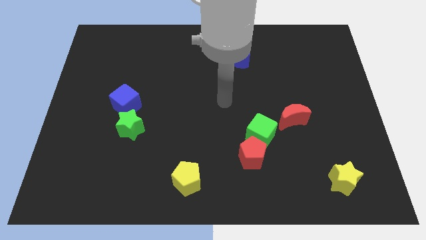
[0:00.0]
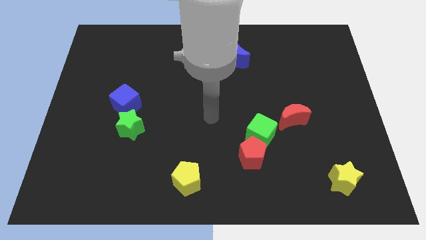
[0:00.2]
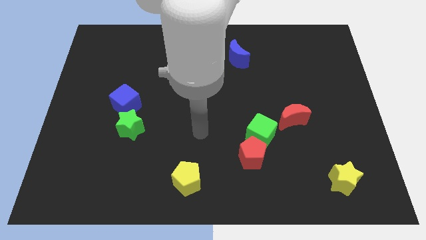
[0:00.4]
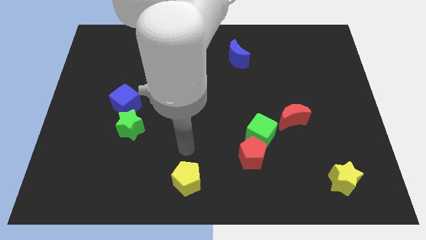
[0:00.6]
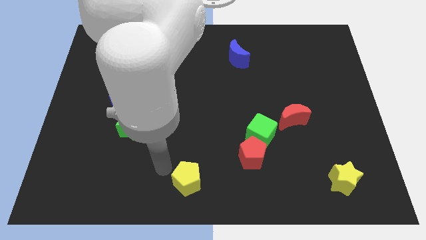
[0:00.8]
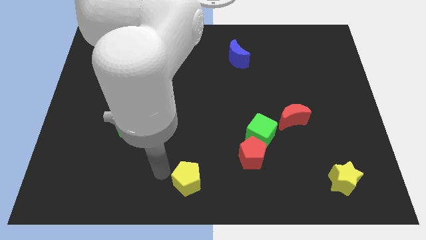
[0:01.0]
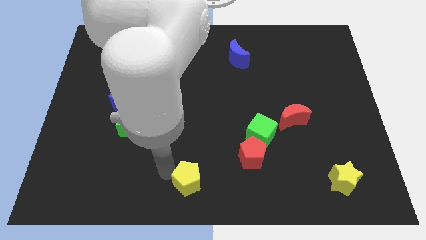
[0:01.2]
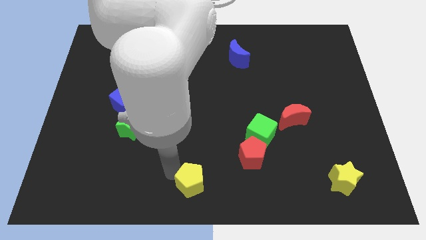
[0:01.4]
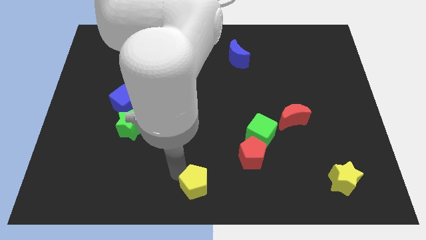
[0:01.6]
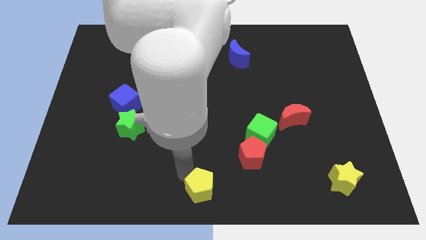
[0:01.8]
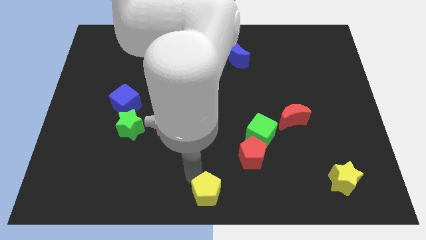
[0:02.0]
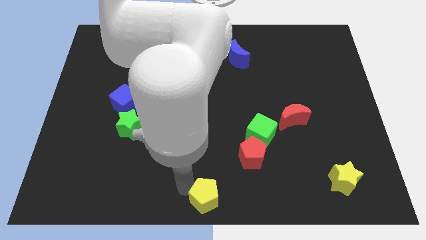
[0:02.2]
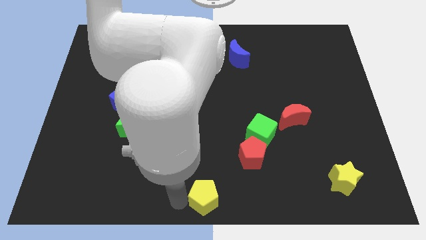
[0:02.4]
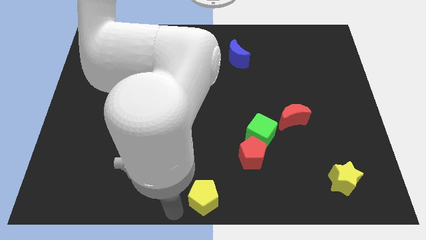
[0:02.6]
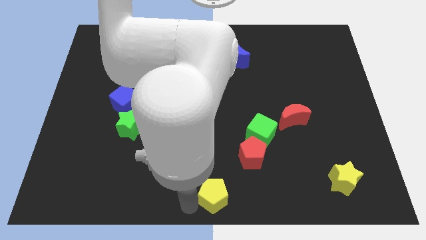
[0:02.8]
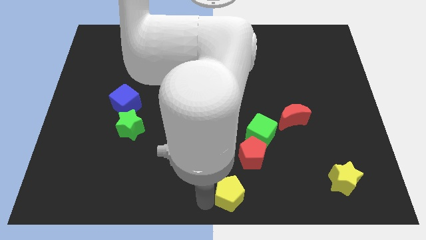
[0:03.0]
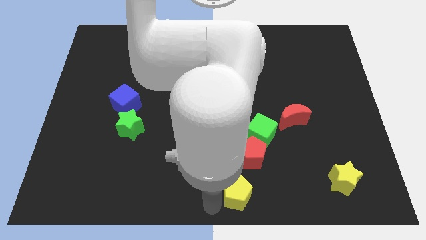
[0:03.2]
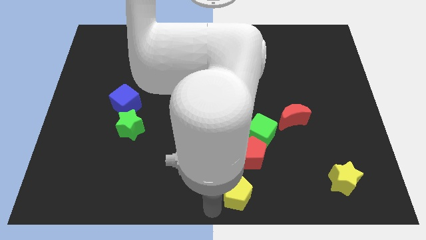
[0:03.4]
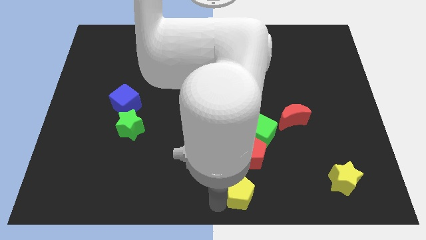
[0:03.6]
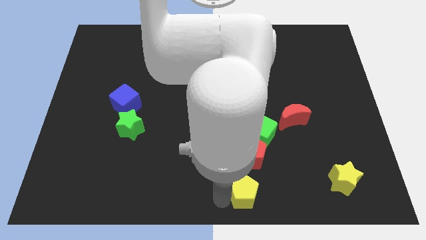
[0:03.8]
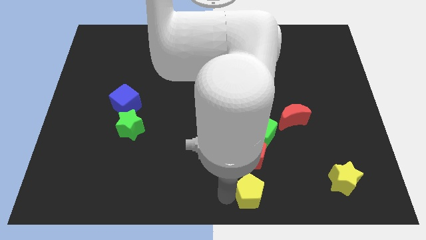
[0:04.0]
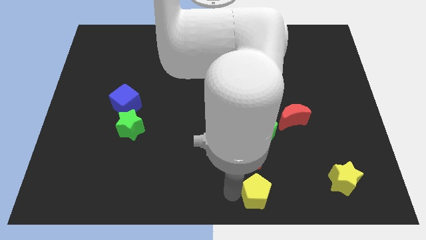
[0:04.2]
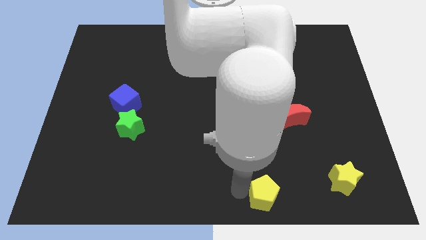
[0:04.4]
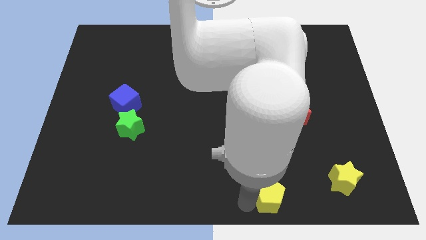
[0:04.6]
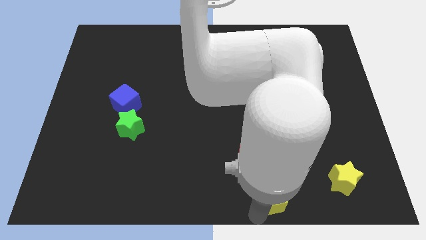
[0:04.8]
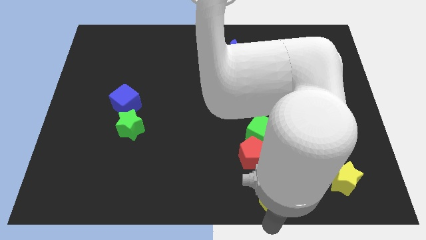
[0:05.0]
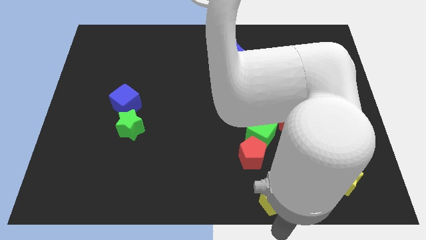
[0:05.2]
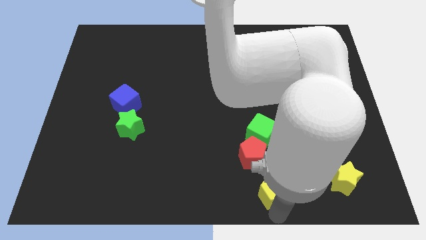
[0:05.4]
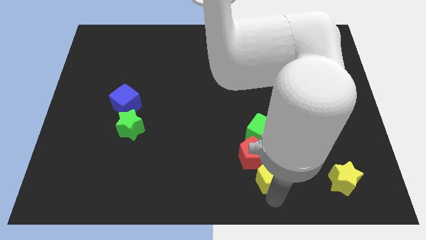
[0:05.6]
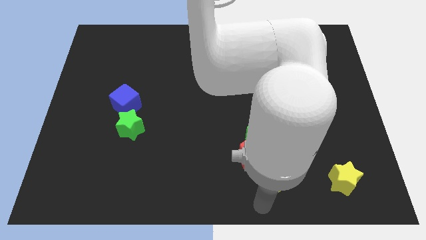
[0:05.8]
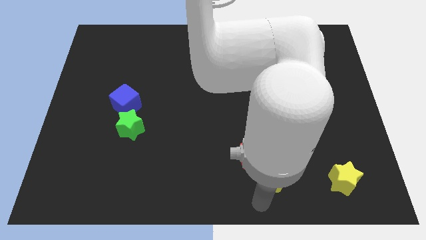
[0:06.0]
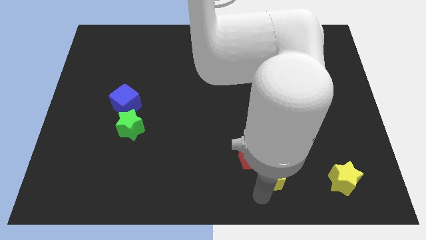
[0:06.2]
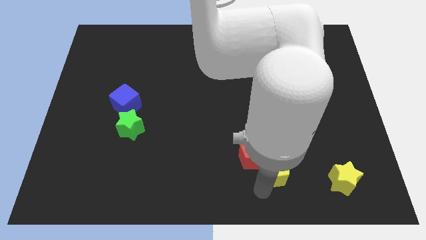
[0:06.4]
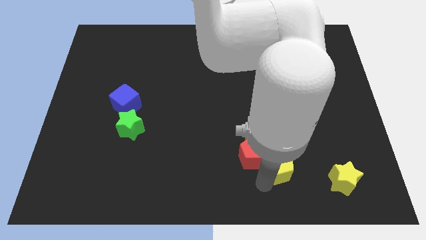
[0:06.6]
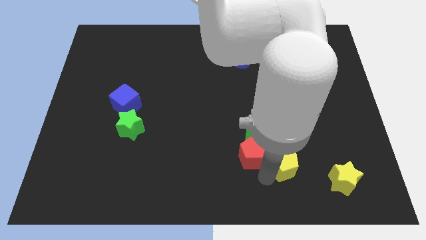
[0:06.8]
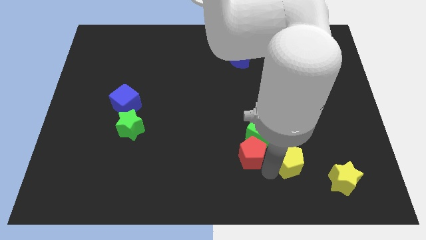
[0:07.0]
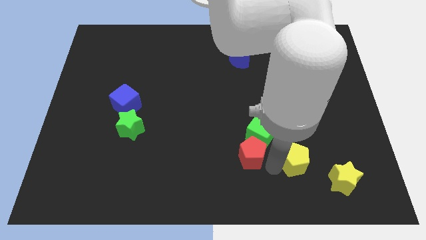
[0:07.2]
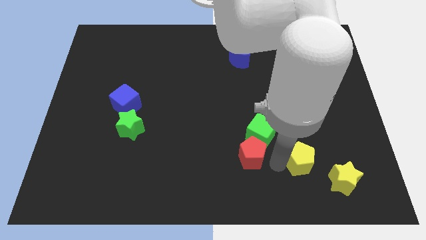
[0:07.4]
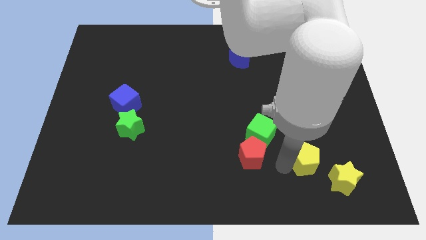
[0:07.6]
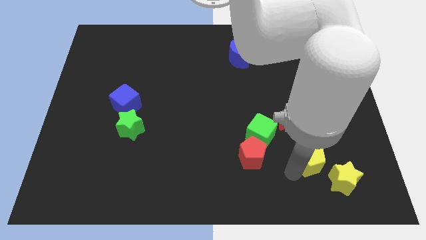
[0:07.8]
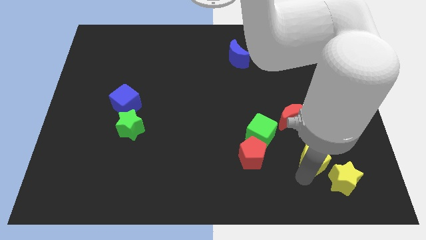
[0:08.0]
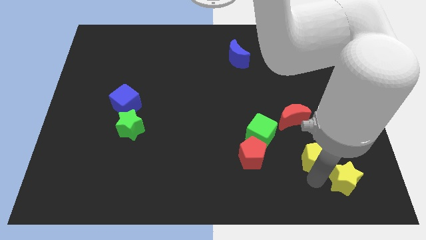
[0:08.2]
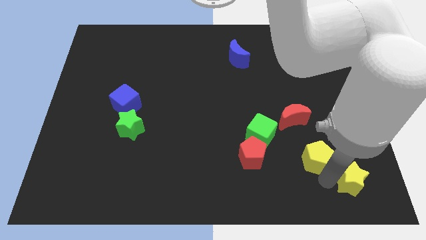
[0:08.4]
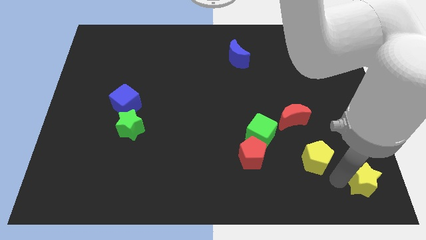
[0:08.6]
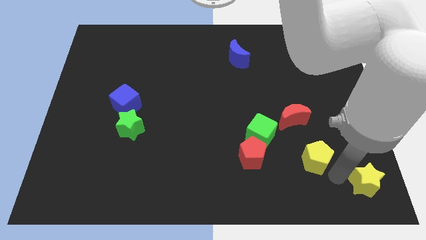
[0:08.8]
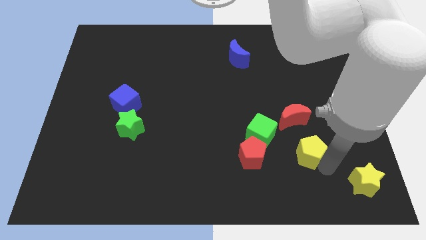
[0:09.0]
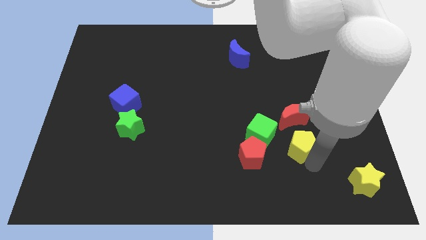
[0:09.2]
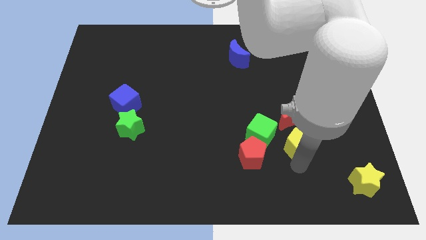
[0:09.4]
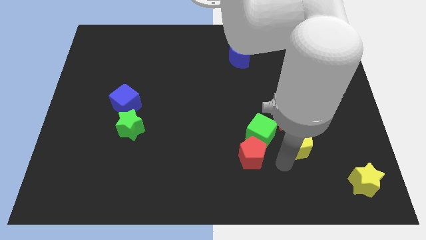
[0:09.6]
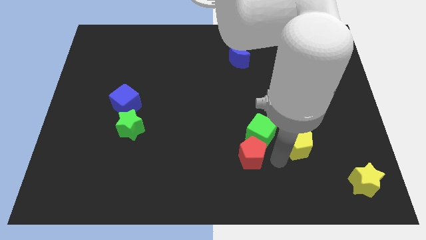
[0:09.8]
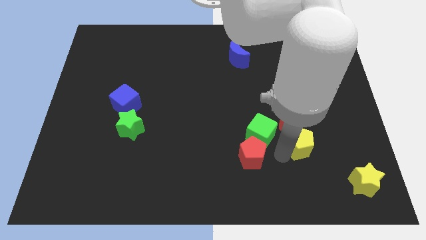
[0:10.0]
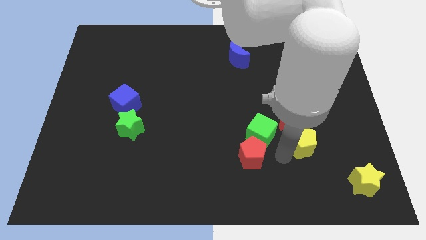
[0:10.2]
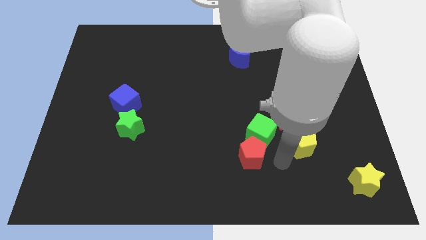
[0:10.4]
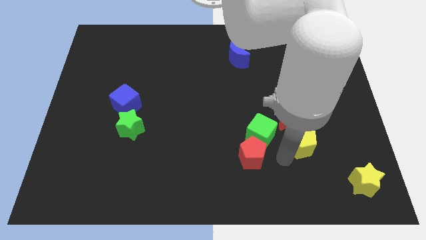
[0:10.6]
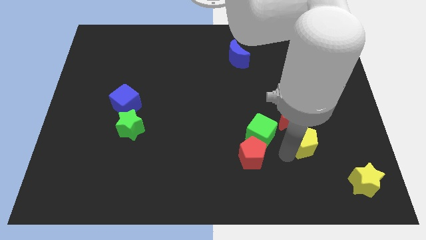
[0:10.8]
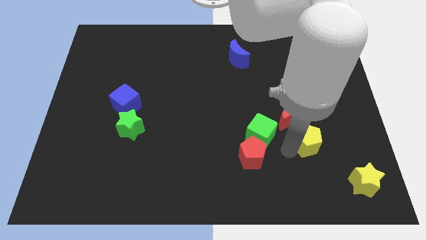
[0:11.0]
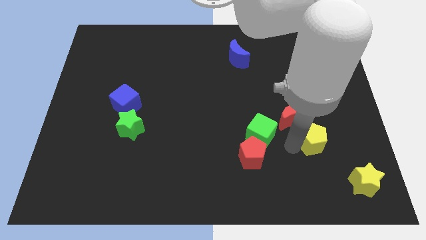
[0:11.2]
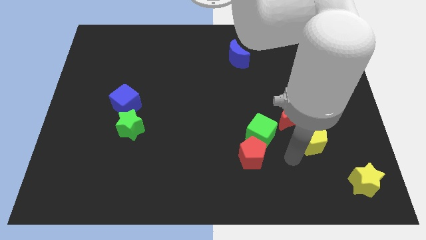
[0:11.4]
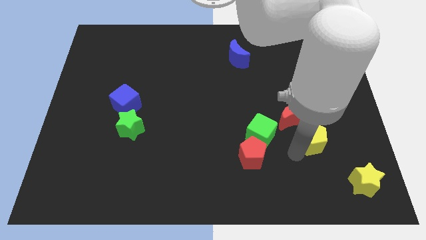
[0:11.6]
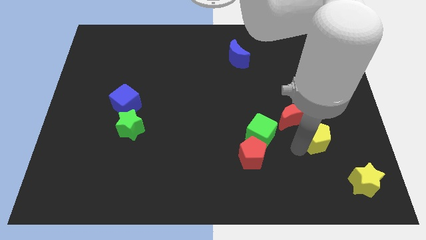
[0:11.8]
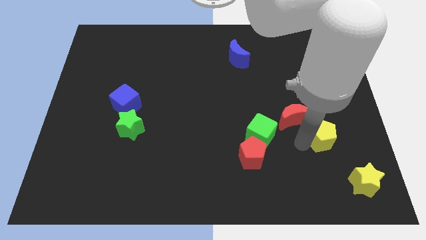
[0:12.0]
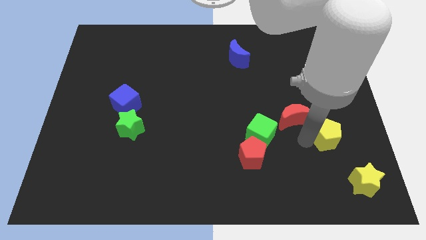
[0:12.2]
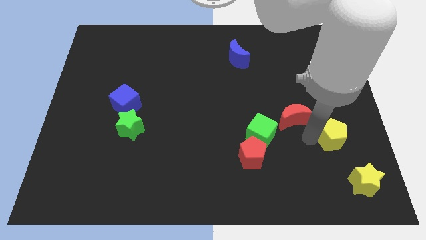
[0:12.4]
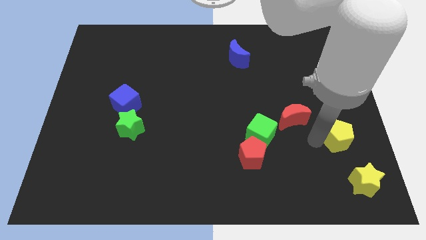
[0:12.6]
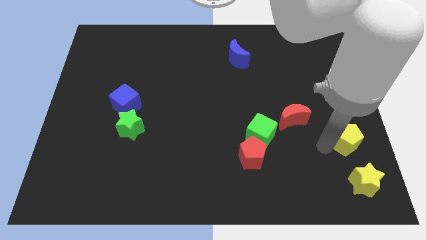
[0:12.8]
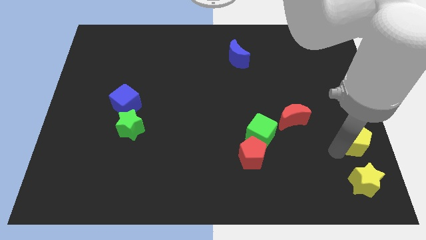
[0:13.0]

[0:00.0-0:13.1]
push the yellow pentagon to the right side

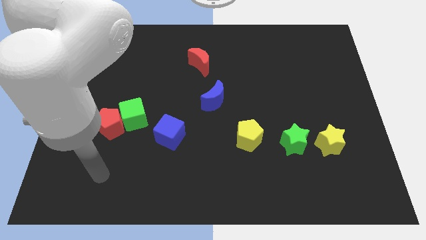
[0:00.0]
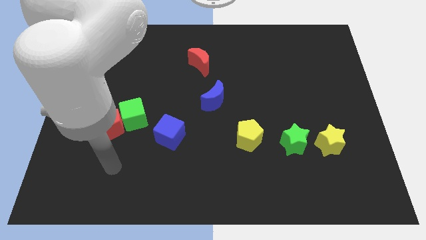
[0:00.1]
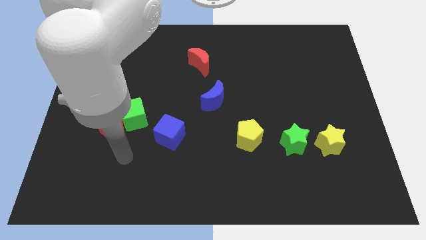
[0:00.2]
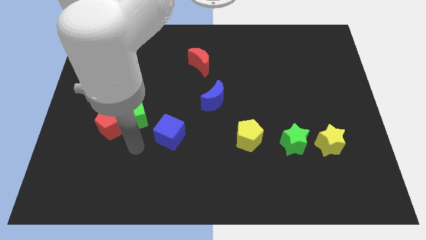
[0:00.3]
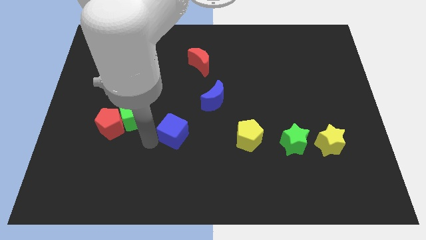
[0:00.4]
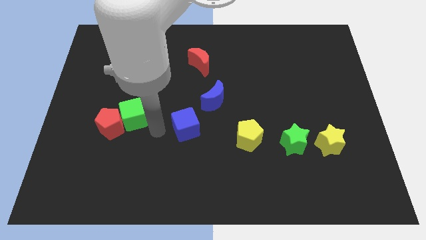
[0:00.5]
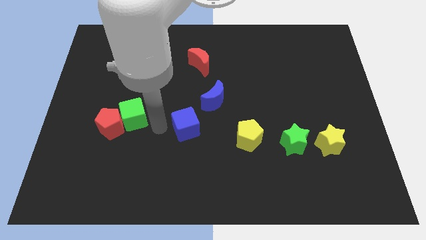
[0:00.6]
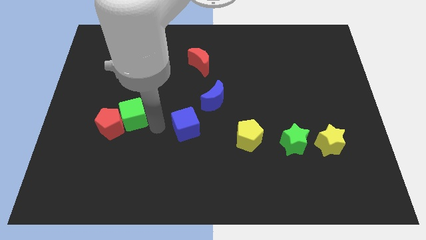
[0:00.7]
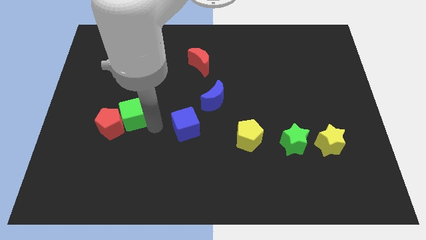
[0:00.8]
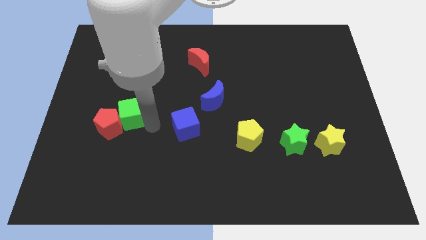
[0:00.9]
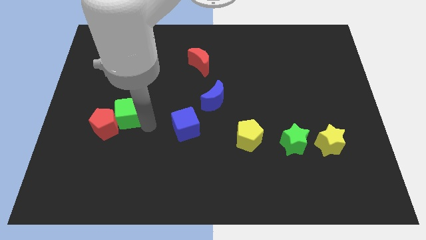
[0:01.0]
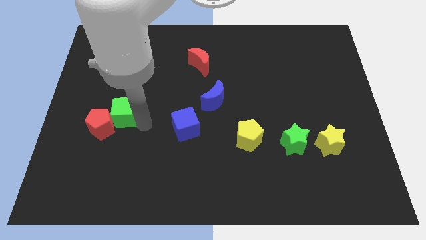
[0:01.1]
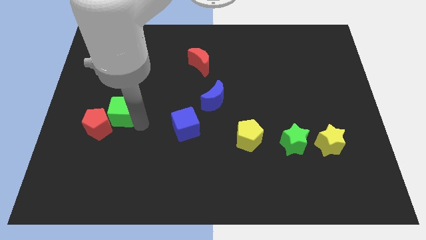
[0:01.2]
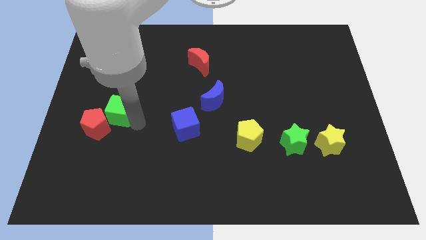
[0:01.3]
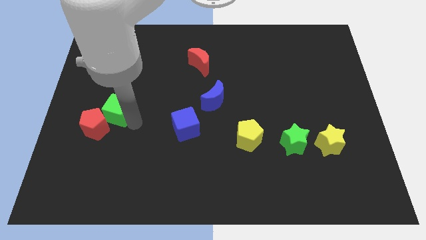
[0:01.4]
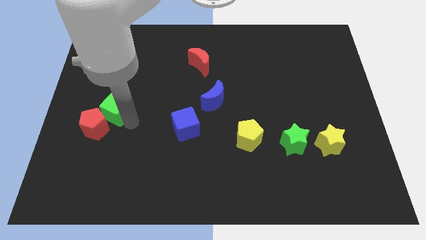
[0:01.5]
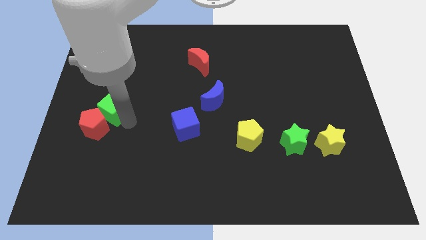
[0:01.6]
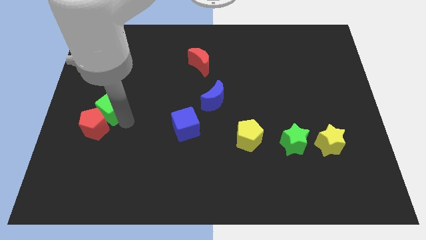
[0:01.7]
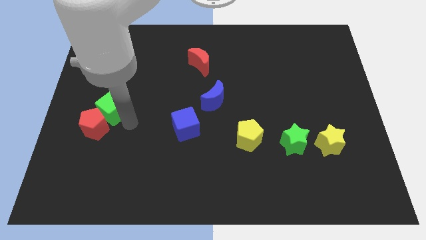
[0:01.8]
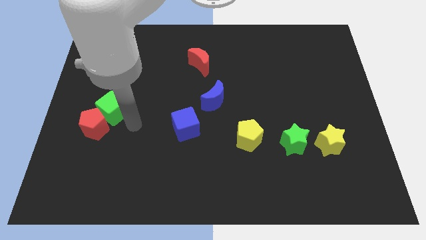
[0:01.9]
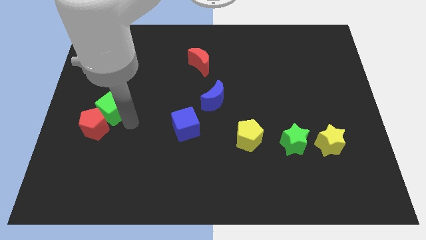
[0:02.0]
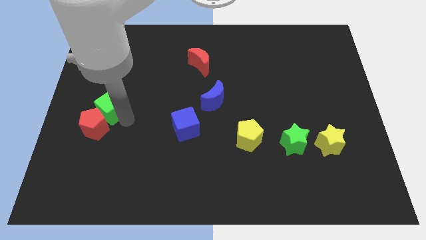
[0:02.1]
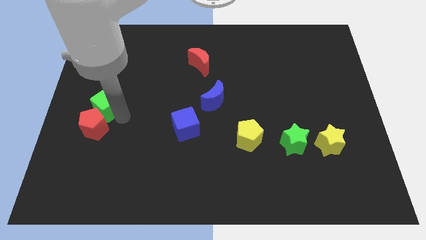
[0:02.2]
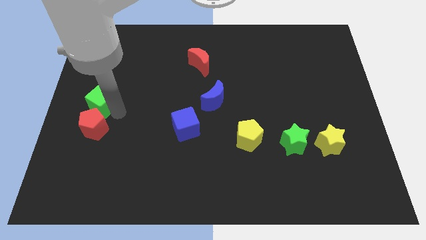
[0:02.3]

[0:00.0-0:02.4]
slide the green cube to the left side of the board
